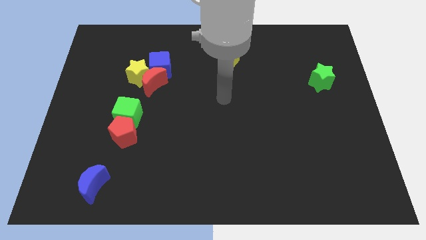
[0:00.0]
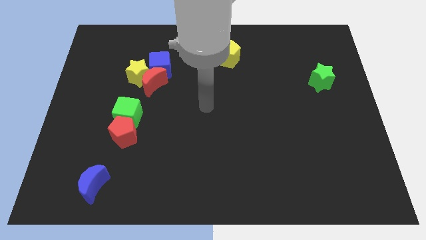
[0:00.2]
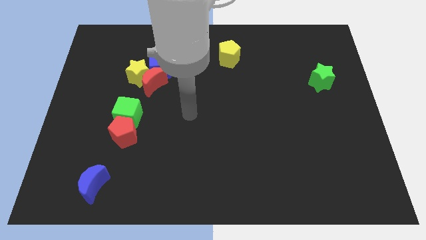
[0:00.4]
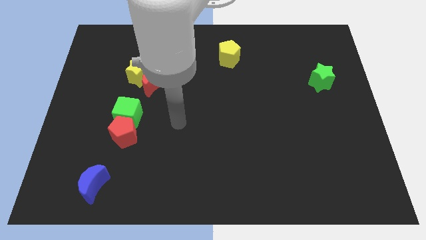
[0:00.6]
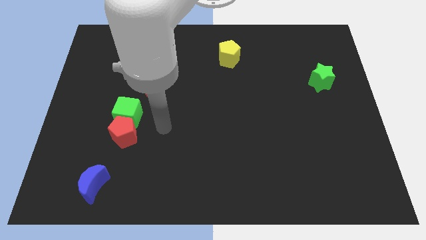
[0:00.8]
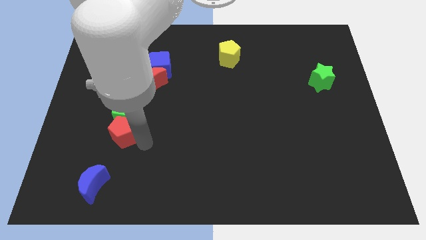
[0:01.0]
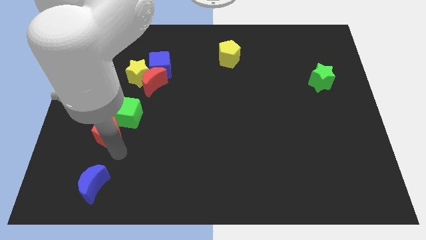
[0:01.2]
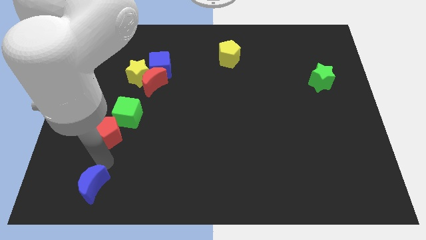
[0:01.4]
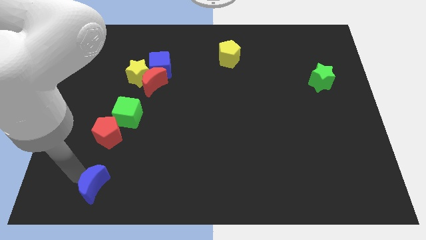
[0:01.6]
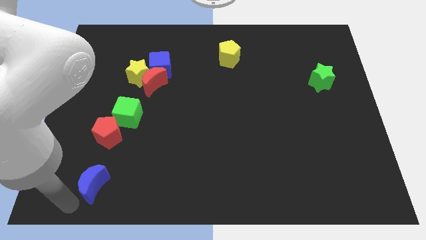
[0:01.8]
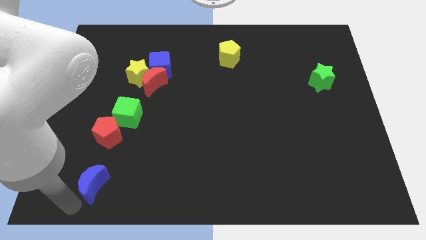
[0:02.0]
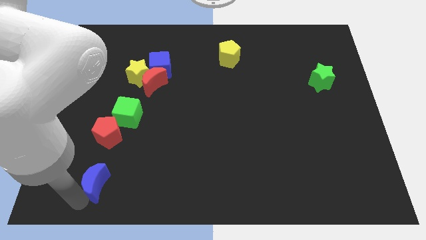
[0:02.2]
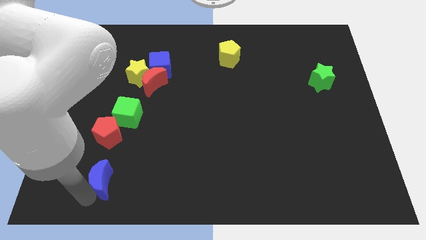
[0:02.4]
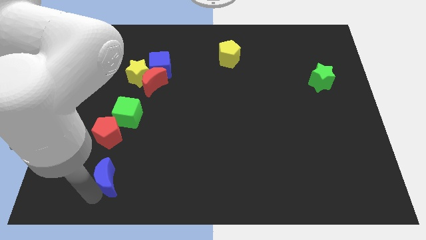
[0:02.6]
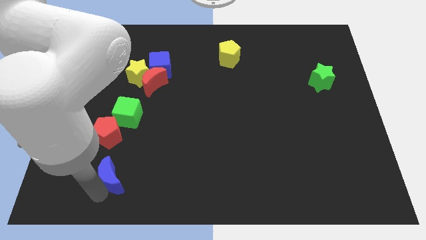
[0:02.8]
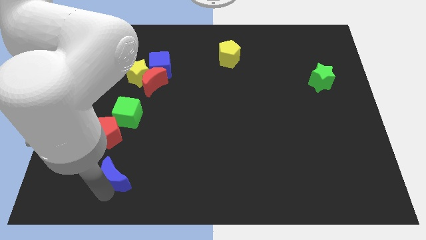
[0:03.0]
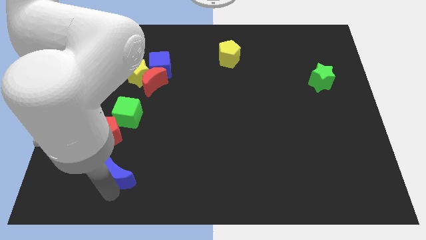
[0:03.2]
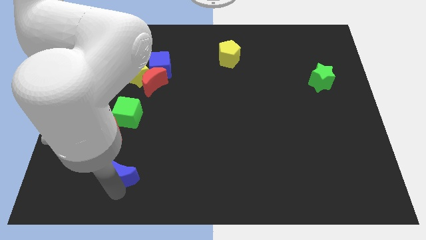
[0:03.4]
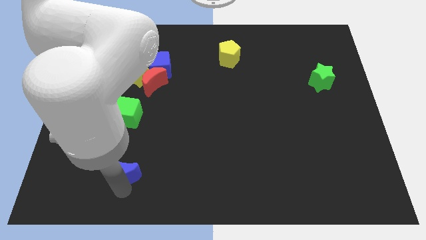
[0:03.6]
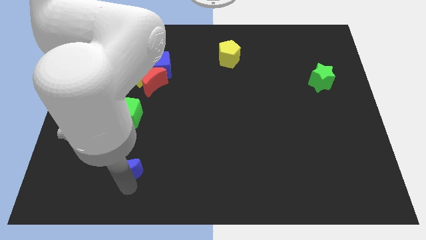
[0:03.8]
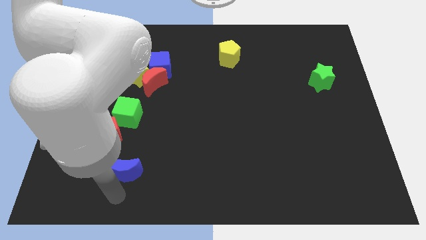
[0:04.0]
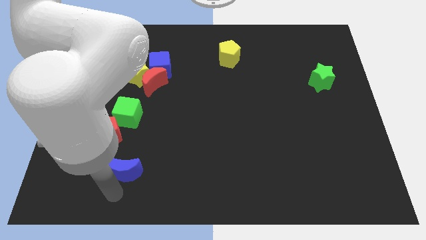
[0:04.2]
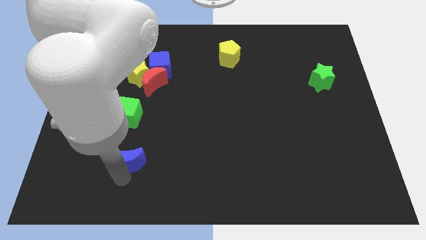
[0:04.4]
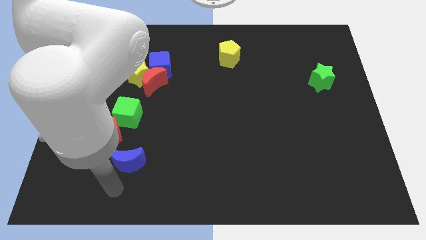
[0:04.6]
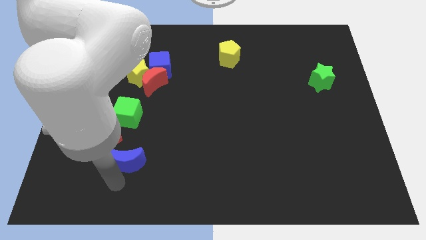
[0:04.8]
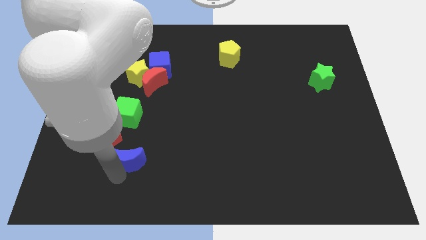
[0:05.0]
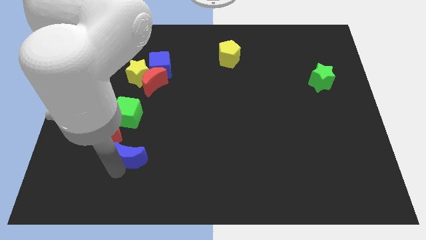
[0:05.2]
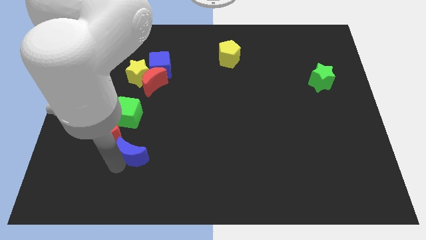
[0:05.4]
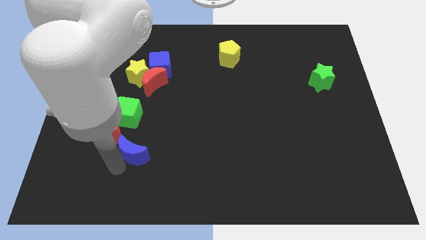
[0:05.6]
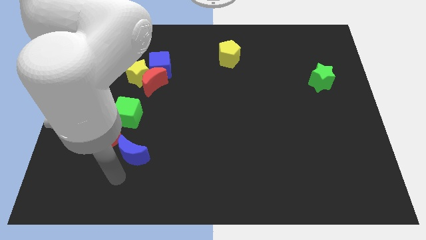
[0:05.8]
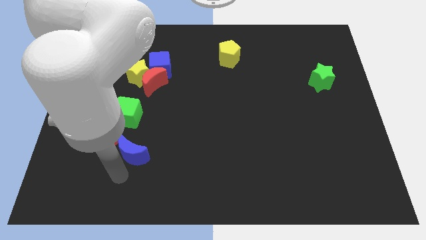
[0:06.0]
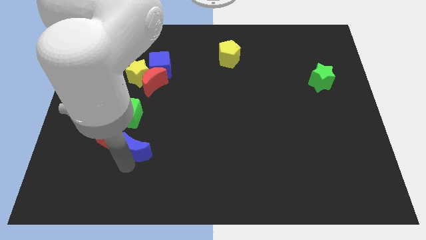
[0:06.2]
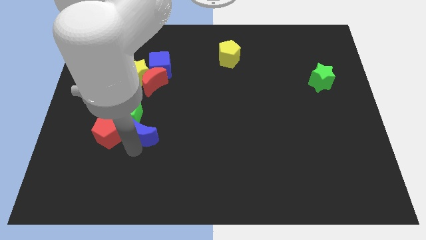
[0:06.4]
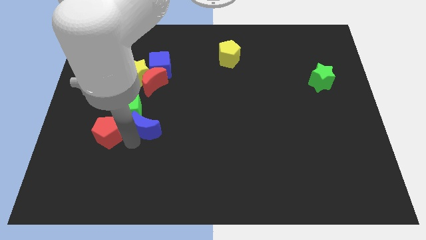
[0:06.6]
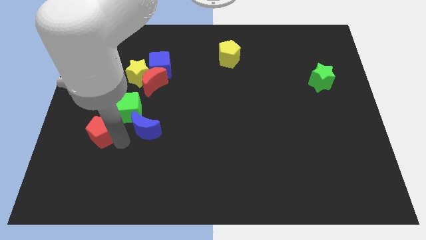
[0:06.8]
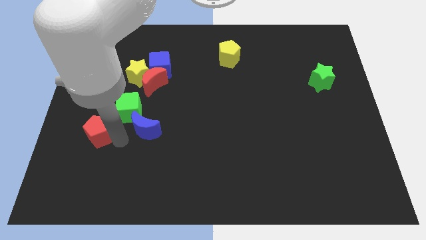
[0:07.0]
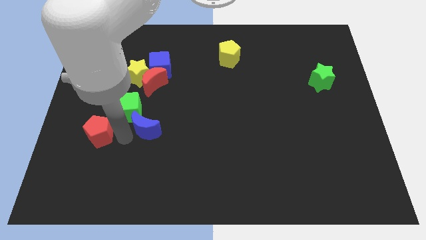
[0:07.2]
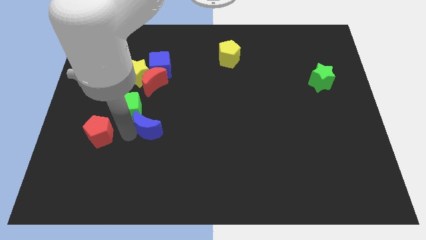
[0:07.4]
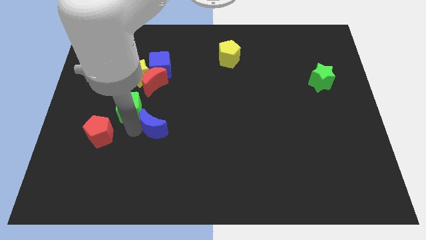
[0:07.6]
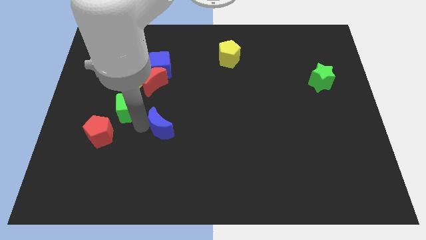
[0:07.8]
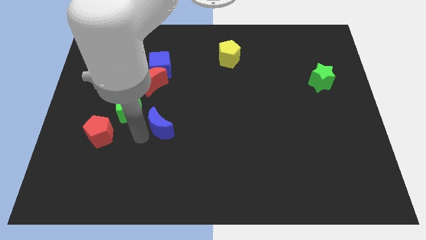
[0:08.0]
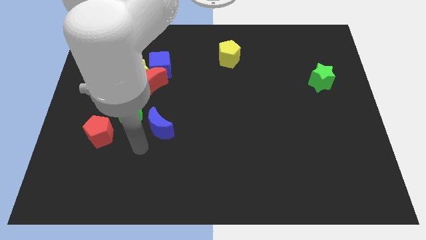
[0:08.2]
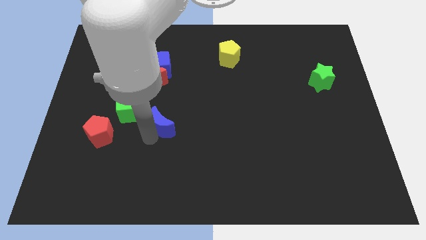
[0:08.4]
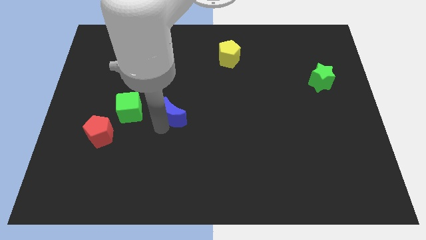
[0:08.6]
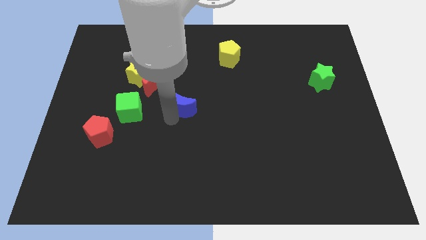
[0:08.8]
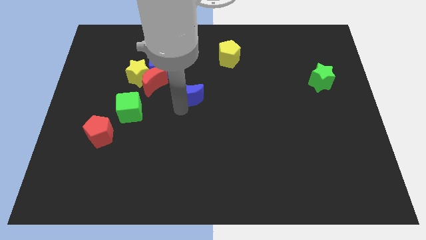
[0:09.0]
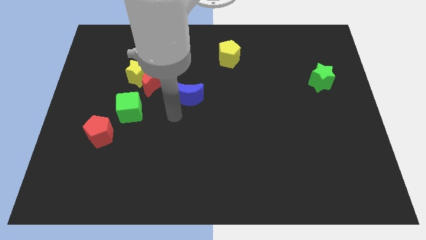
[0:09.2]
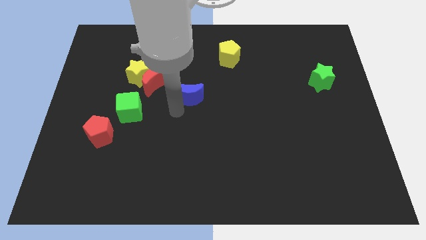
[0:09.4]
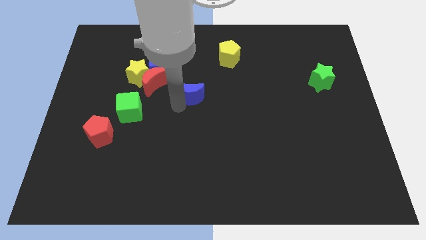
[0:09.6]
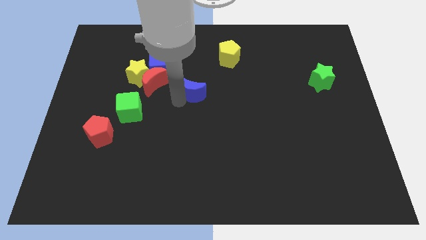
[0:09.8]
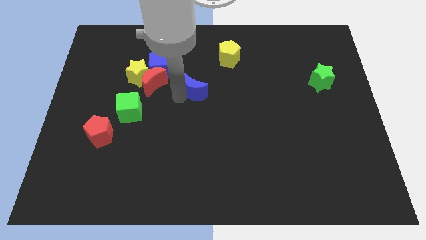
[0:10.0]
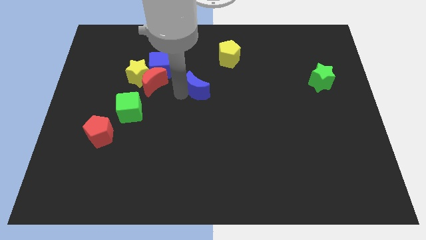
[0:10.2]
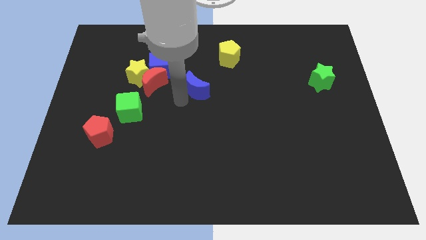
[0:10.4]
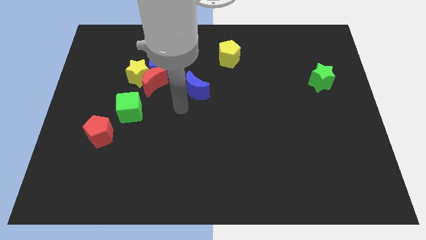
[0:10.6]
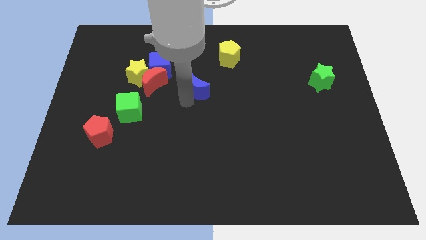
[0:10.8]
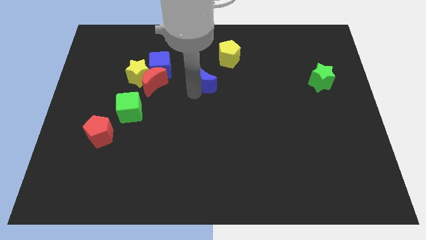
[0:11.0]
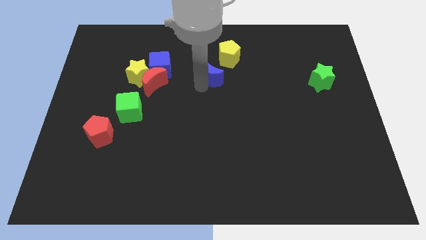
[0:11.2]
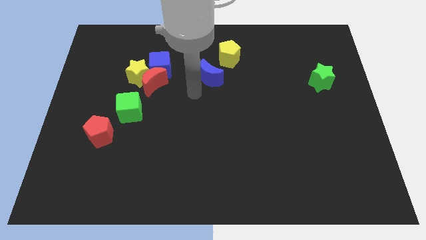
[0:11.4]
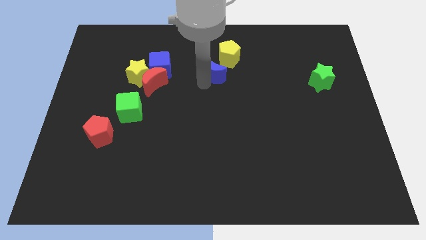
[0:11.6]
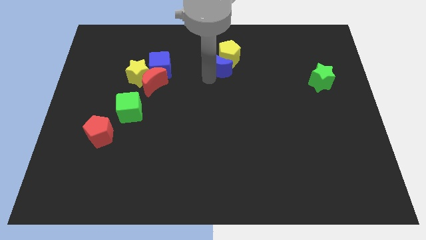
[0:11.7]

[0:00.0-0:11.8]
push the blue moon to the yellow pentagon

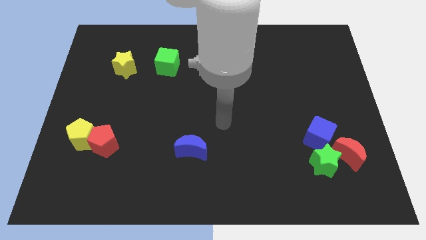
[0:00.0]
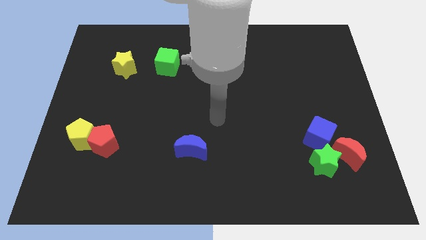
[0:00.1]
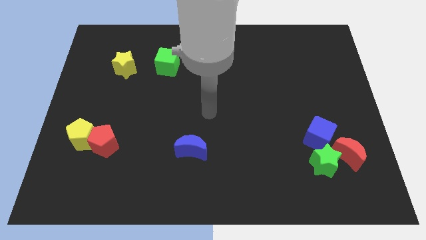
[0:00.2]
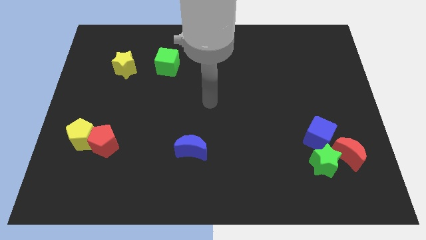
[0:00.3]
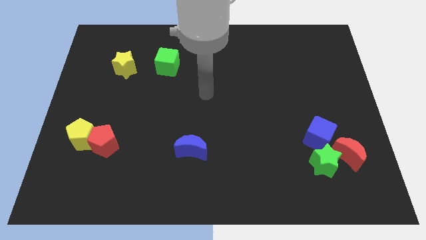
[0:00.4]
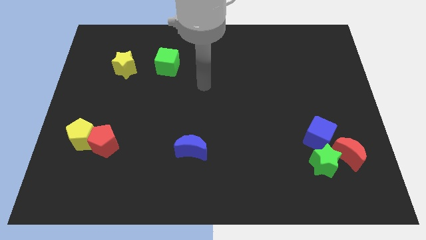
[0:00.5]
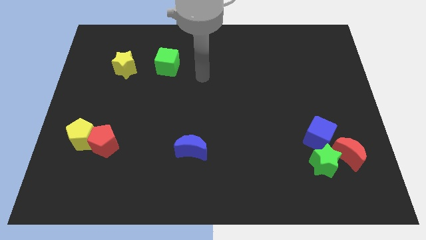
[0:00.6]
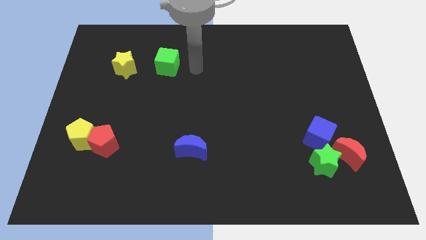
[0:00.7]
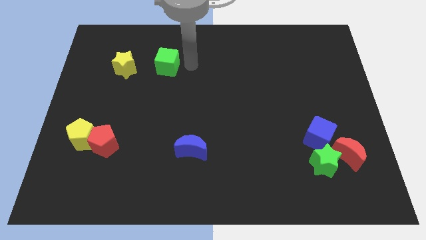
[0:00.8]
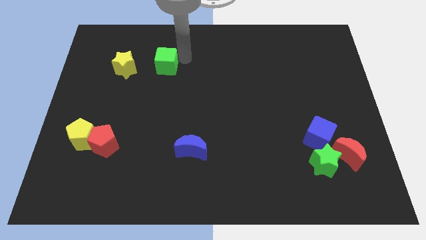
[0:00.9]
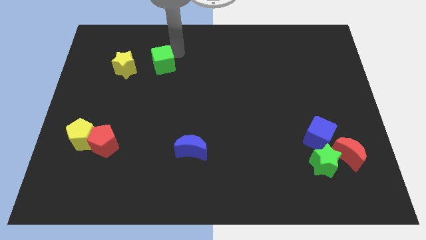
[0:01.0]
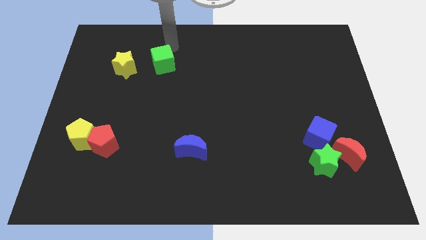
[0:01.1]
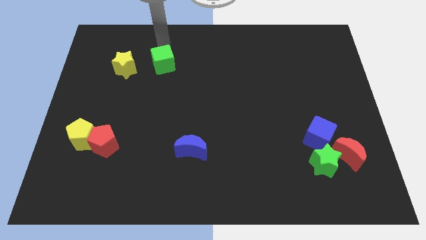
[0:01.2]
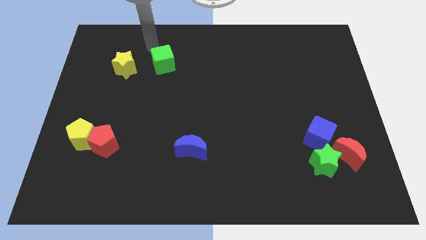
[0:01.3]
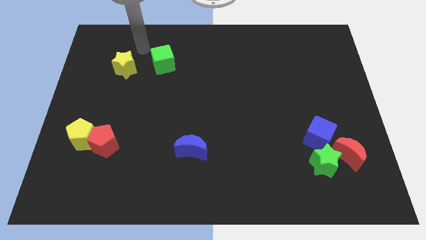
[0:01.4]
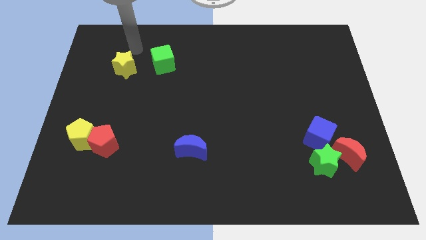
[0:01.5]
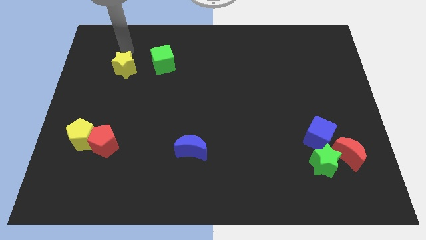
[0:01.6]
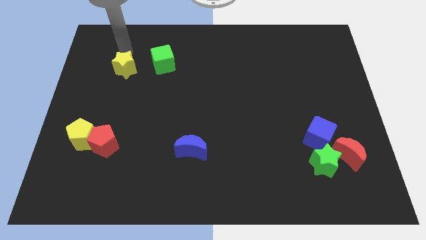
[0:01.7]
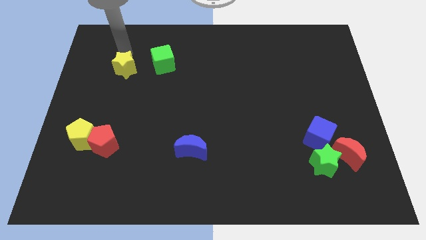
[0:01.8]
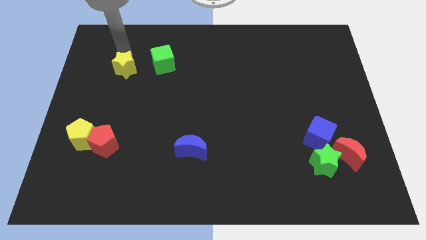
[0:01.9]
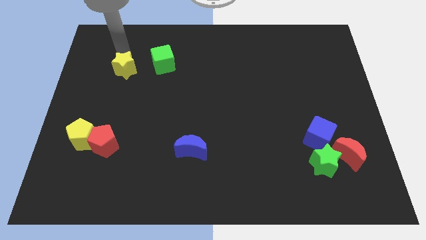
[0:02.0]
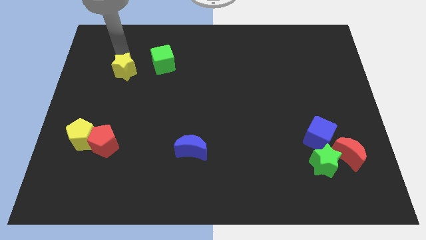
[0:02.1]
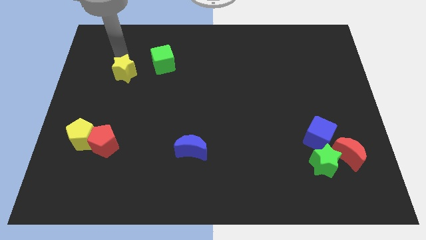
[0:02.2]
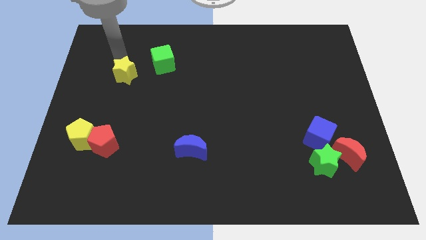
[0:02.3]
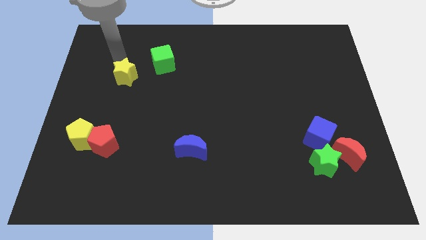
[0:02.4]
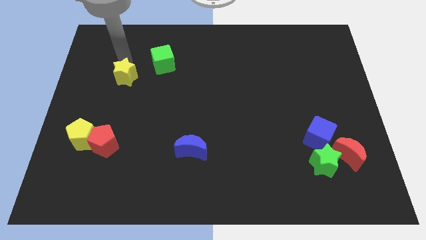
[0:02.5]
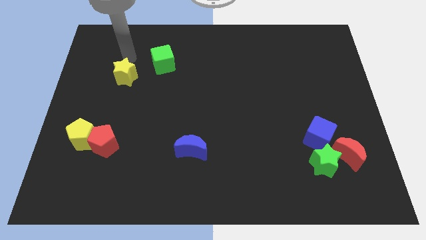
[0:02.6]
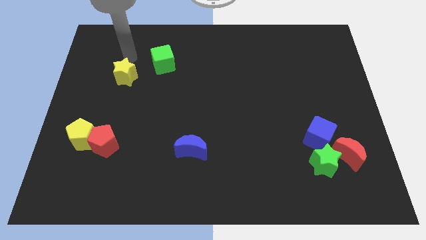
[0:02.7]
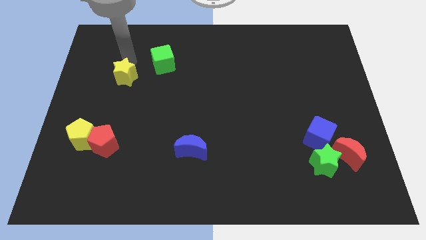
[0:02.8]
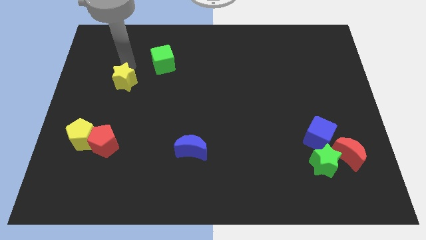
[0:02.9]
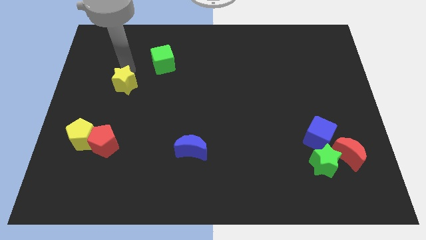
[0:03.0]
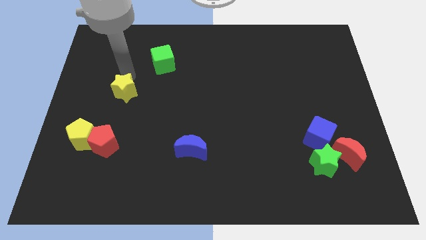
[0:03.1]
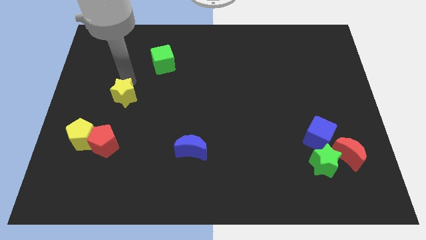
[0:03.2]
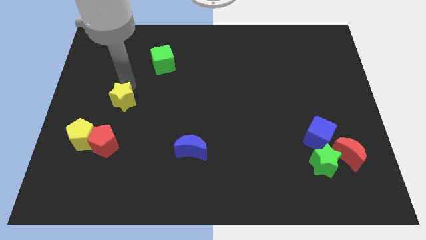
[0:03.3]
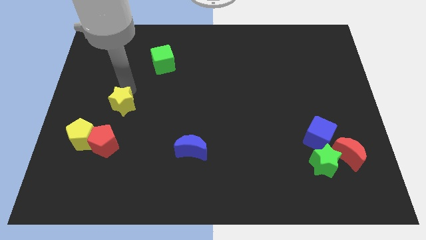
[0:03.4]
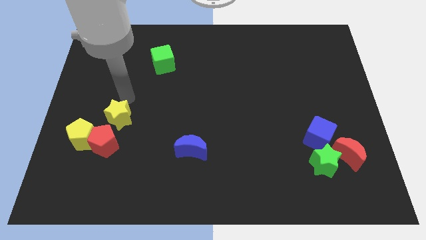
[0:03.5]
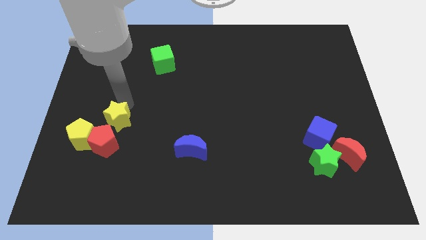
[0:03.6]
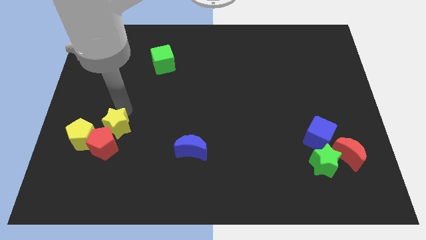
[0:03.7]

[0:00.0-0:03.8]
push the yellow star to the red pentagon
